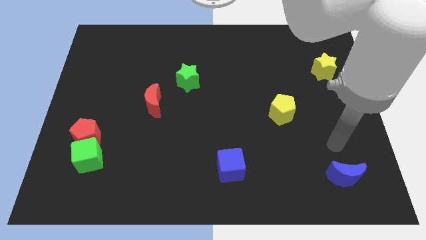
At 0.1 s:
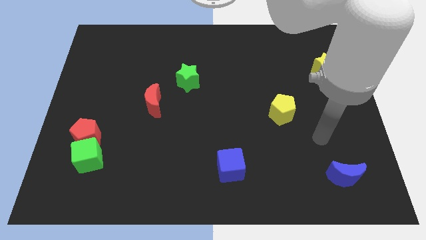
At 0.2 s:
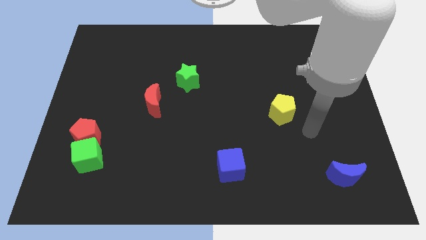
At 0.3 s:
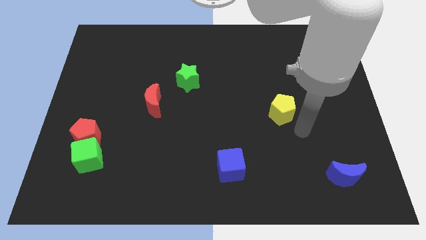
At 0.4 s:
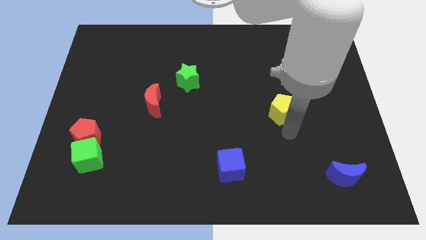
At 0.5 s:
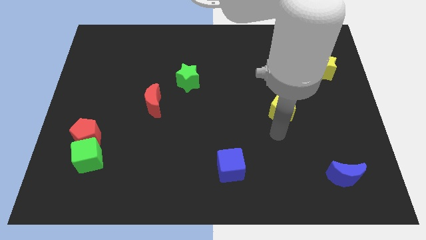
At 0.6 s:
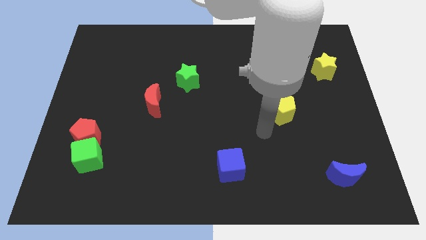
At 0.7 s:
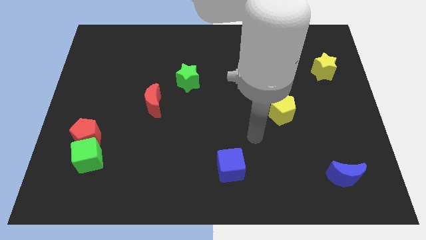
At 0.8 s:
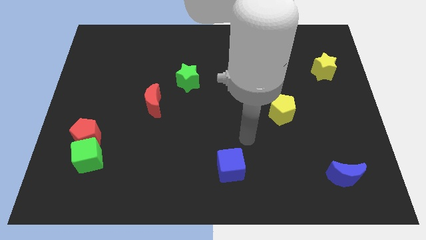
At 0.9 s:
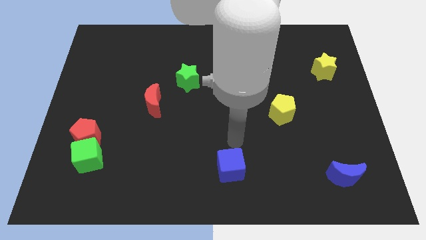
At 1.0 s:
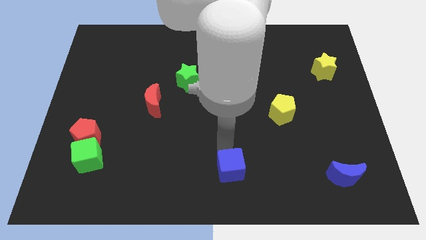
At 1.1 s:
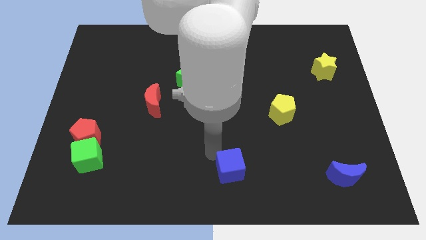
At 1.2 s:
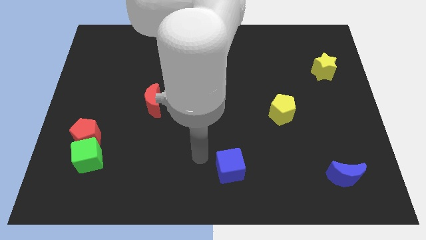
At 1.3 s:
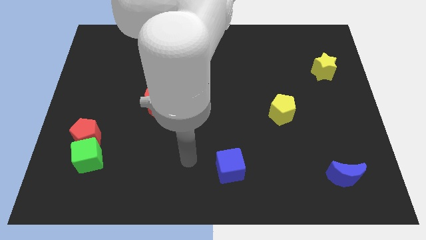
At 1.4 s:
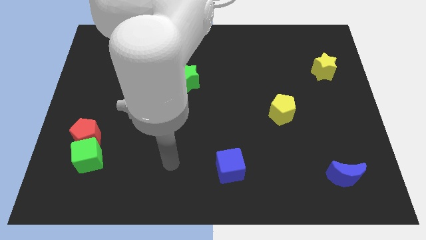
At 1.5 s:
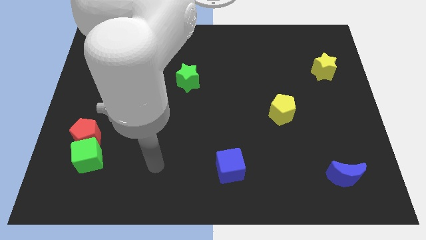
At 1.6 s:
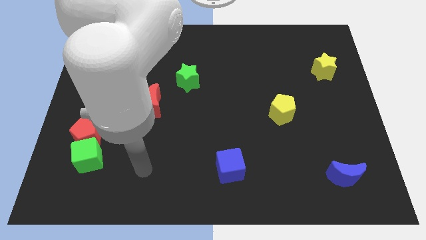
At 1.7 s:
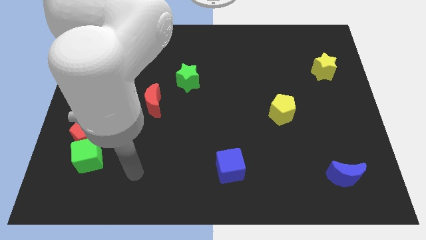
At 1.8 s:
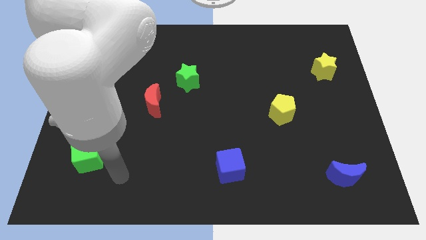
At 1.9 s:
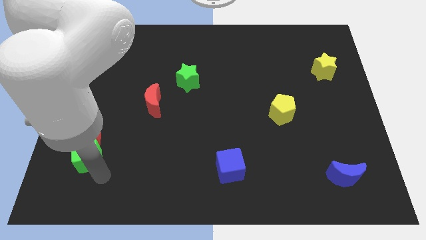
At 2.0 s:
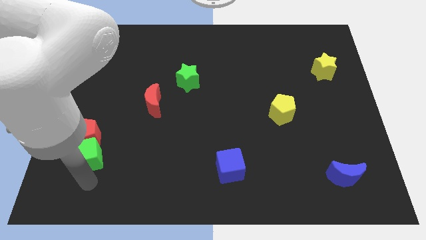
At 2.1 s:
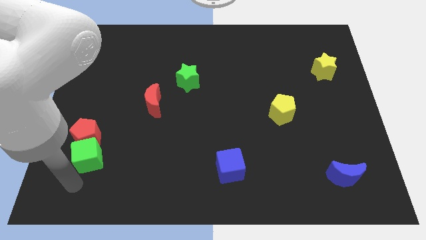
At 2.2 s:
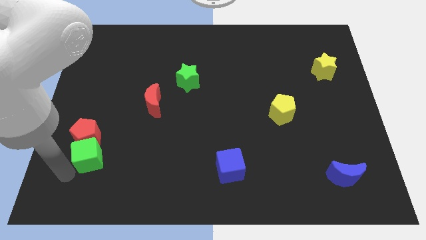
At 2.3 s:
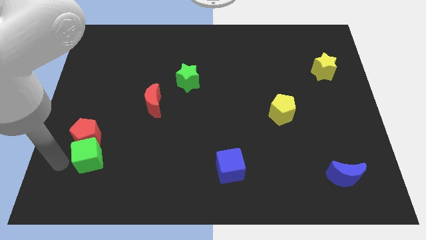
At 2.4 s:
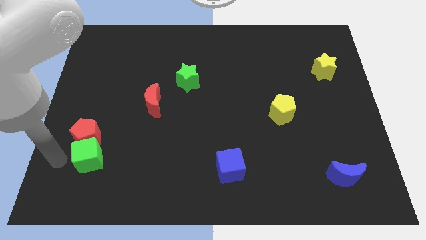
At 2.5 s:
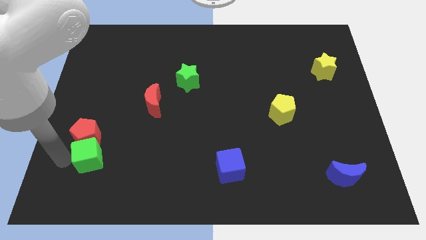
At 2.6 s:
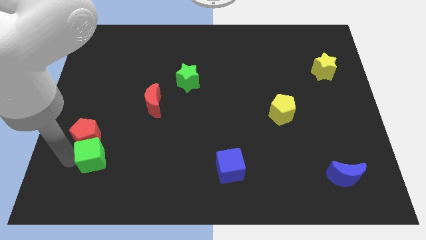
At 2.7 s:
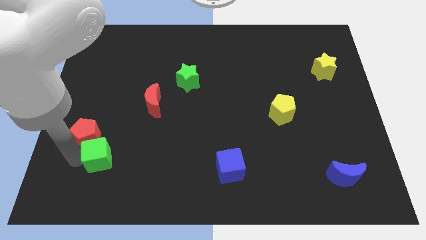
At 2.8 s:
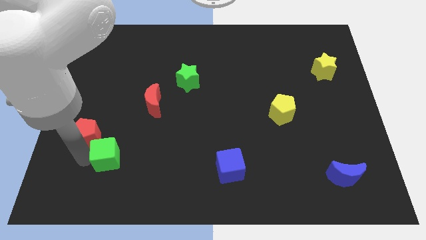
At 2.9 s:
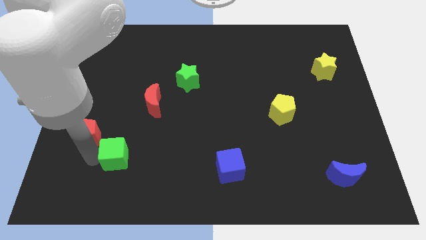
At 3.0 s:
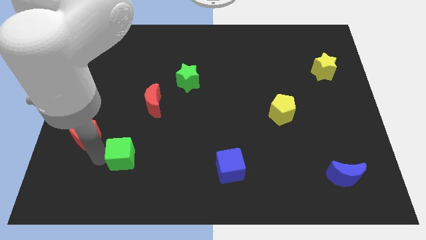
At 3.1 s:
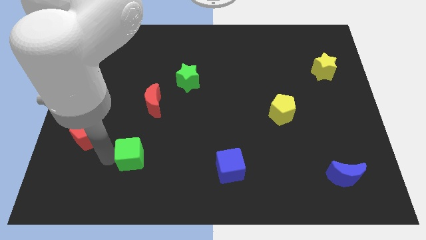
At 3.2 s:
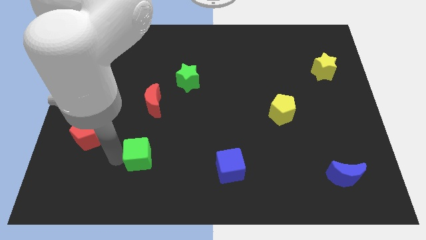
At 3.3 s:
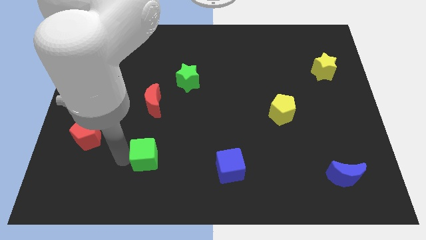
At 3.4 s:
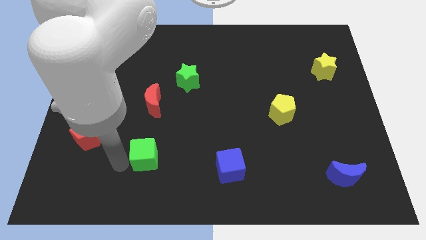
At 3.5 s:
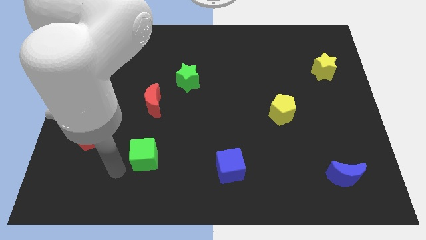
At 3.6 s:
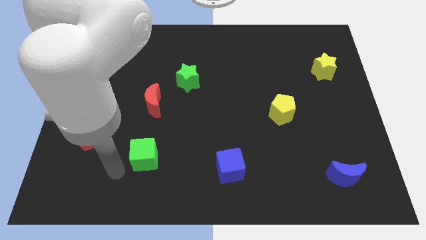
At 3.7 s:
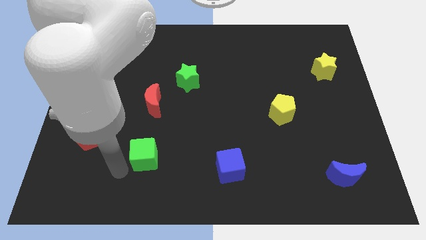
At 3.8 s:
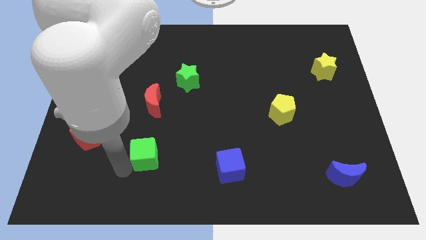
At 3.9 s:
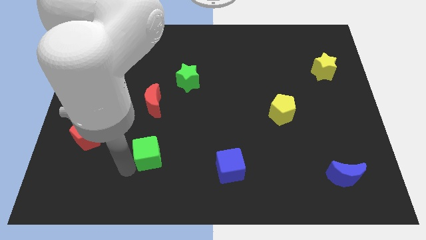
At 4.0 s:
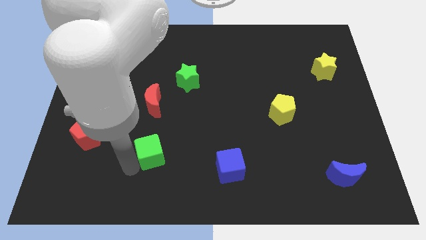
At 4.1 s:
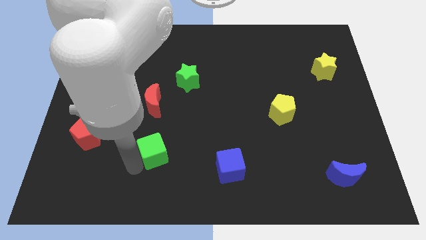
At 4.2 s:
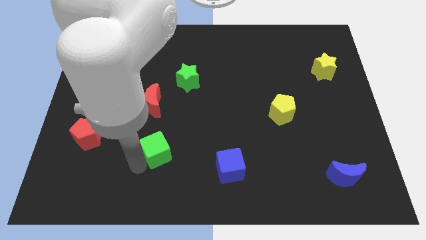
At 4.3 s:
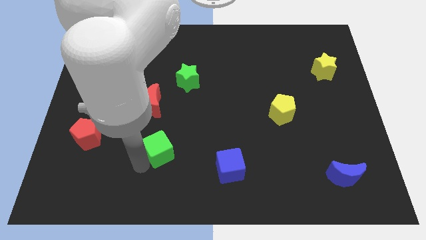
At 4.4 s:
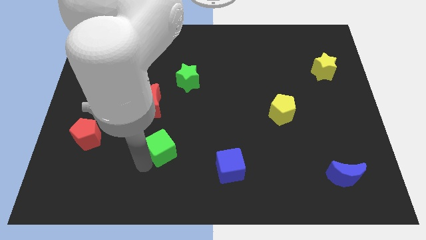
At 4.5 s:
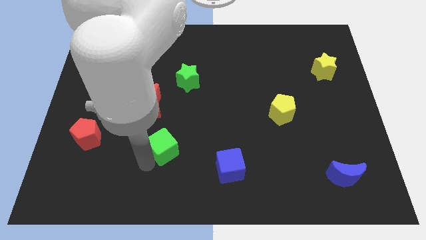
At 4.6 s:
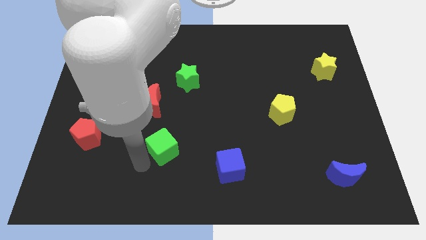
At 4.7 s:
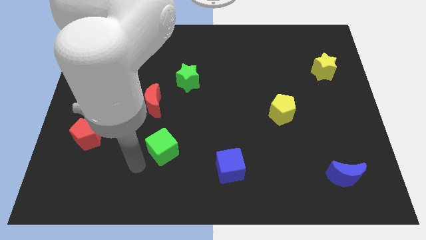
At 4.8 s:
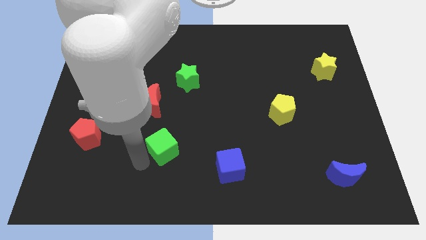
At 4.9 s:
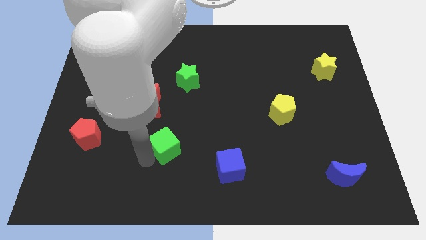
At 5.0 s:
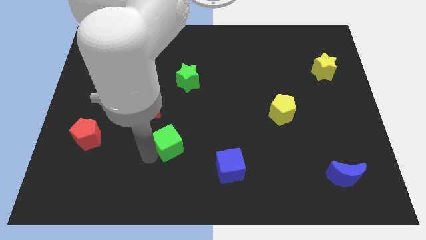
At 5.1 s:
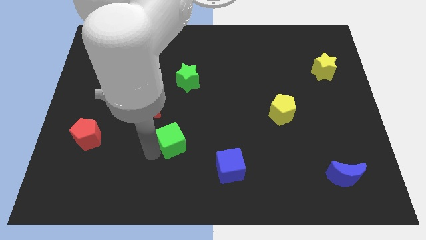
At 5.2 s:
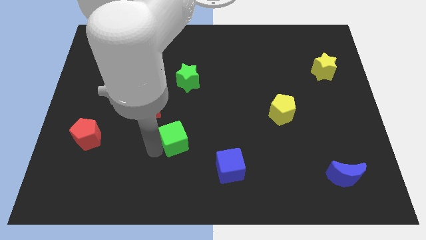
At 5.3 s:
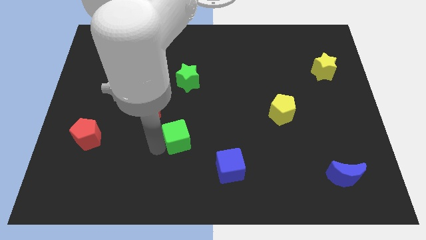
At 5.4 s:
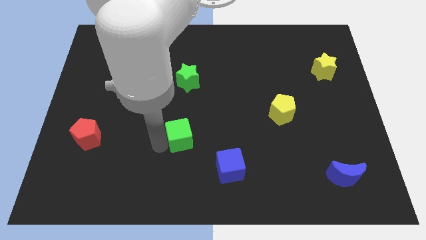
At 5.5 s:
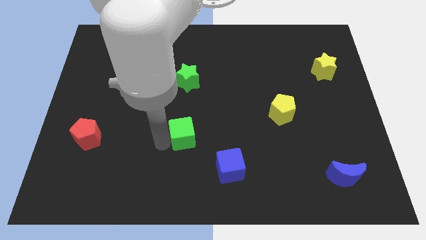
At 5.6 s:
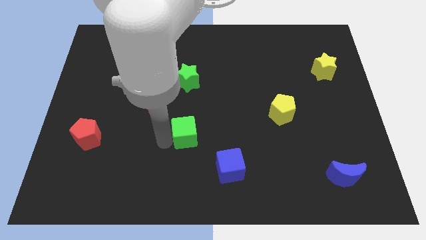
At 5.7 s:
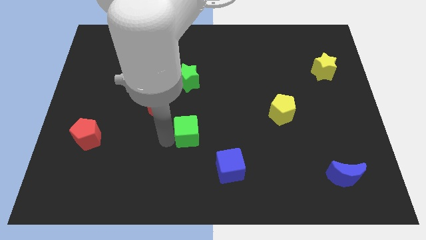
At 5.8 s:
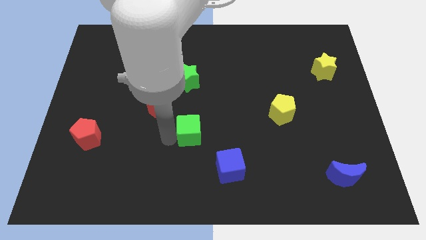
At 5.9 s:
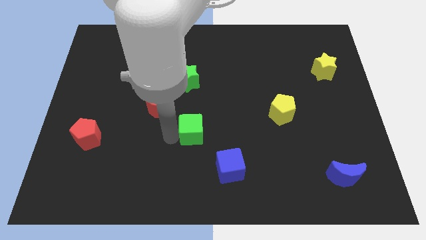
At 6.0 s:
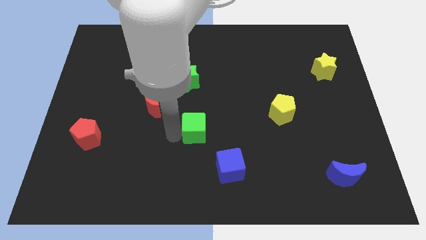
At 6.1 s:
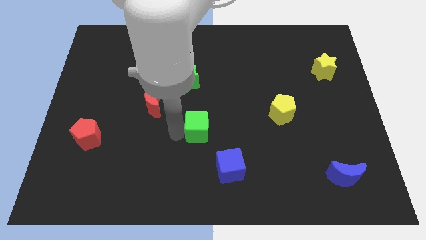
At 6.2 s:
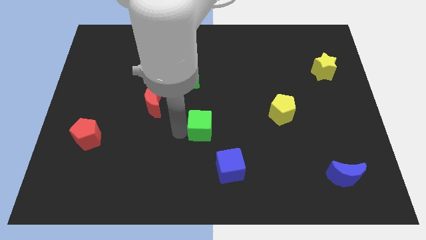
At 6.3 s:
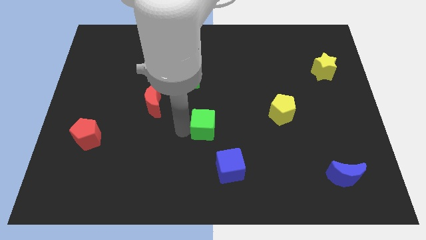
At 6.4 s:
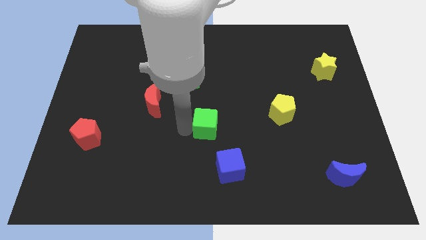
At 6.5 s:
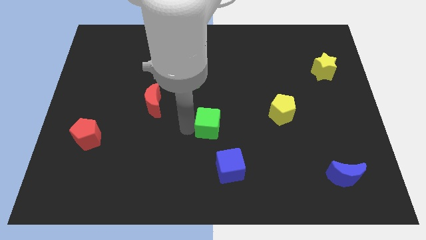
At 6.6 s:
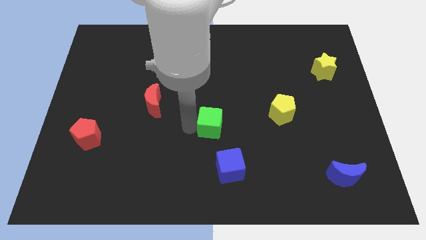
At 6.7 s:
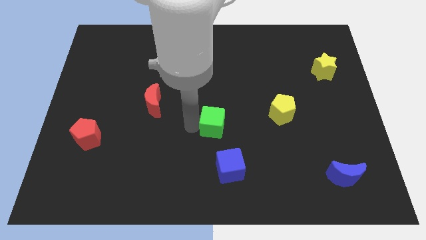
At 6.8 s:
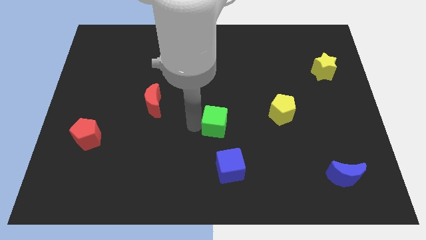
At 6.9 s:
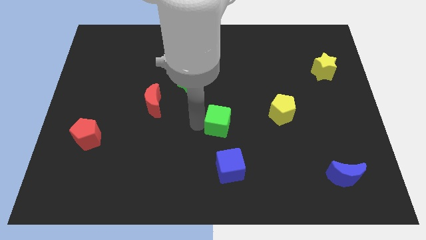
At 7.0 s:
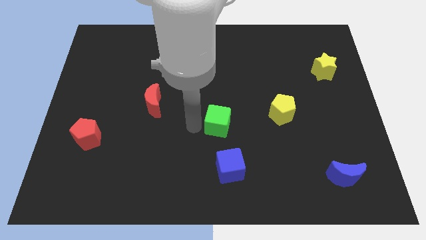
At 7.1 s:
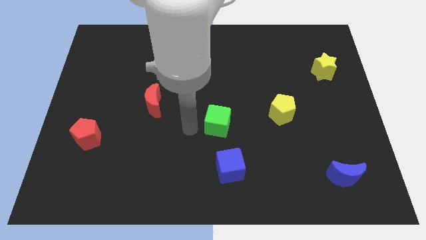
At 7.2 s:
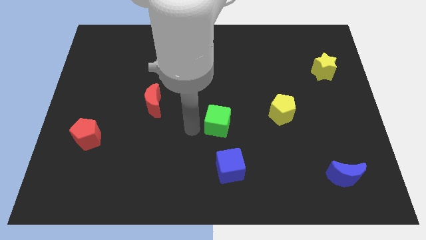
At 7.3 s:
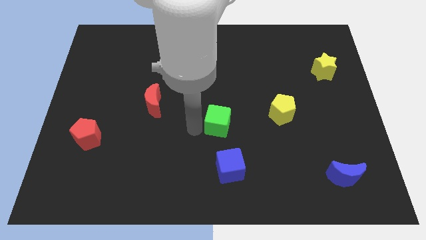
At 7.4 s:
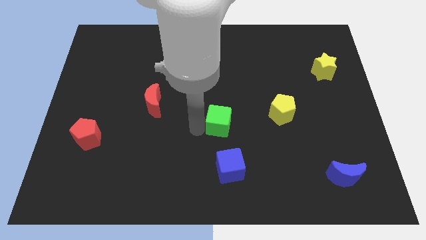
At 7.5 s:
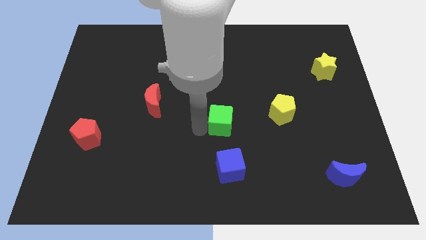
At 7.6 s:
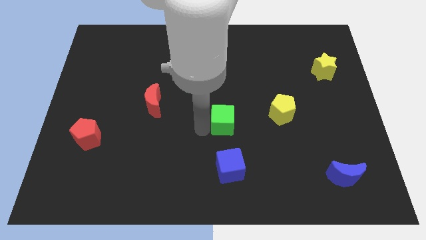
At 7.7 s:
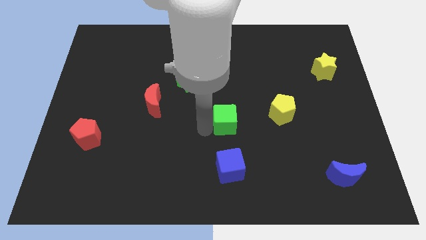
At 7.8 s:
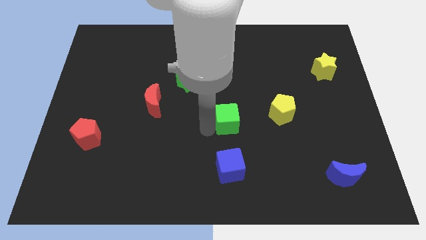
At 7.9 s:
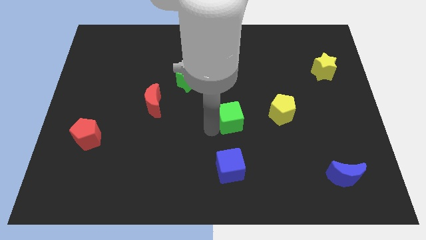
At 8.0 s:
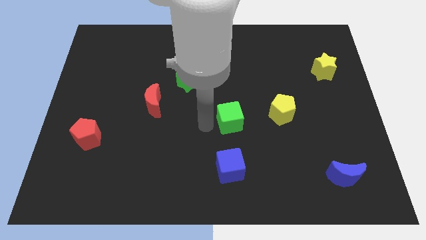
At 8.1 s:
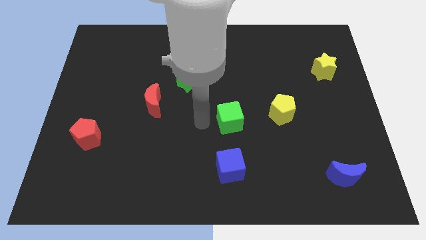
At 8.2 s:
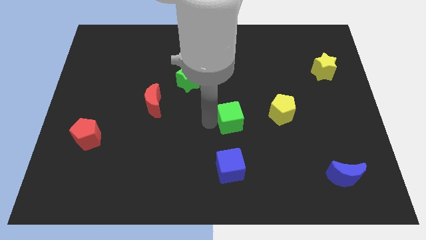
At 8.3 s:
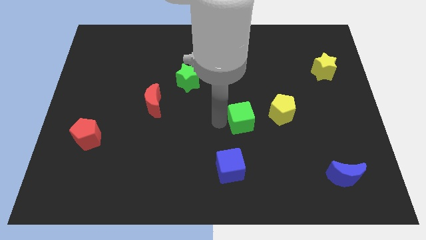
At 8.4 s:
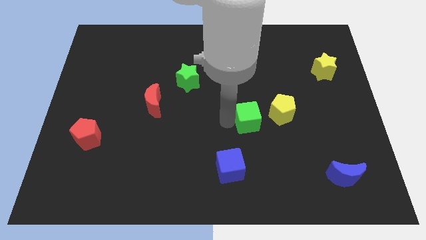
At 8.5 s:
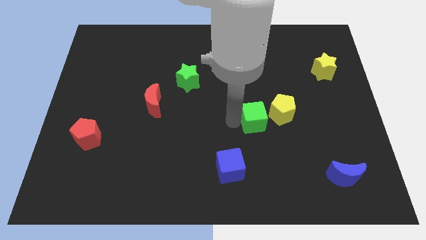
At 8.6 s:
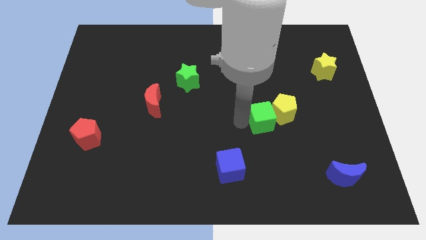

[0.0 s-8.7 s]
push the green cube towards the yellow pentagon
